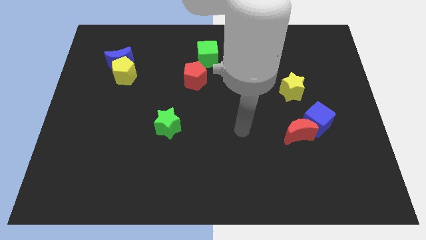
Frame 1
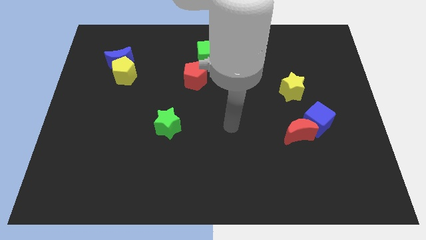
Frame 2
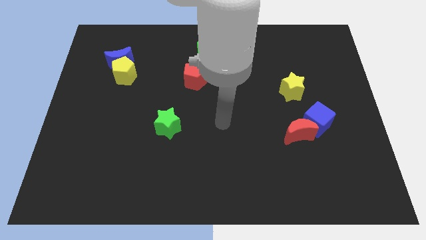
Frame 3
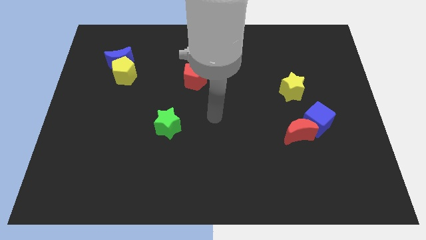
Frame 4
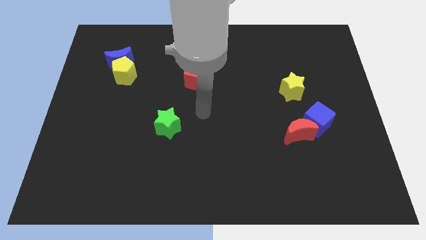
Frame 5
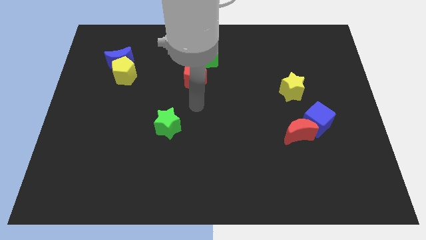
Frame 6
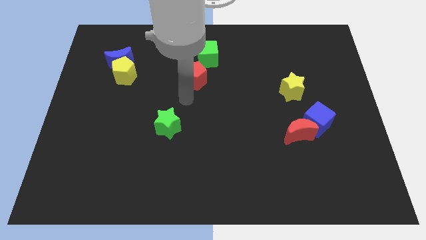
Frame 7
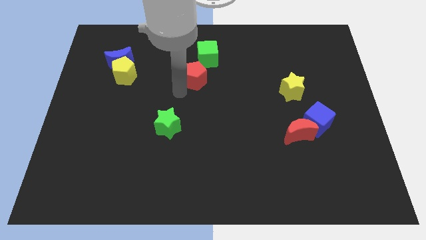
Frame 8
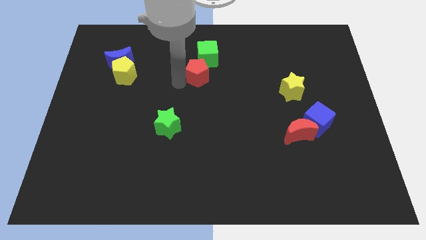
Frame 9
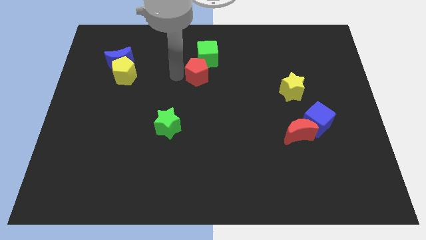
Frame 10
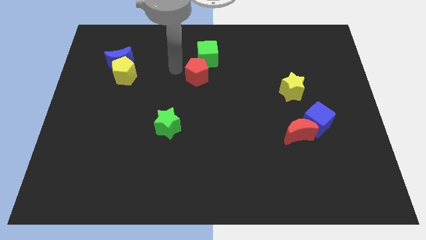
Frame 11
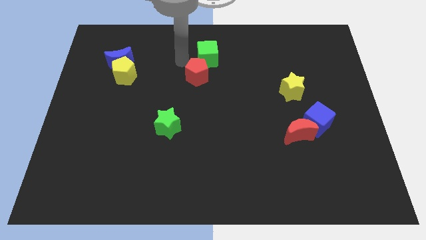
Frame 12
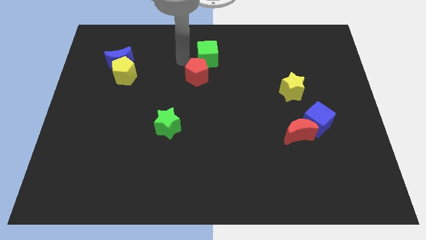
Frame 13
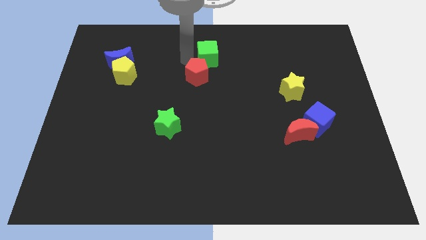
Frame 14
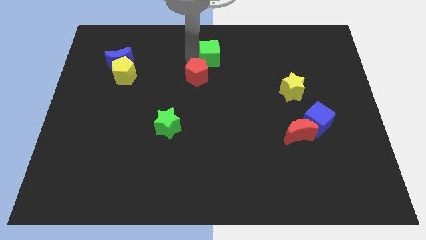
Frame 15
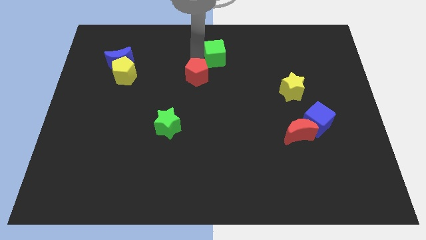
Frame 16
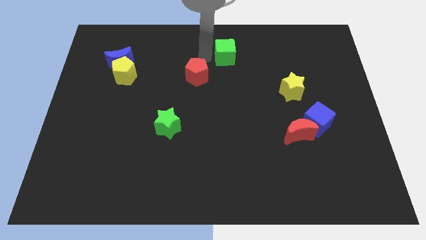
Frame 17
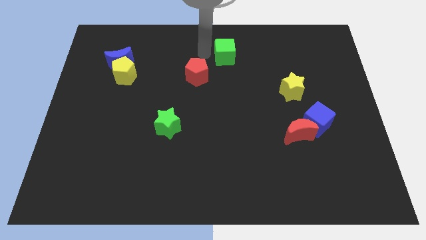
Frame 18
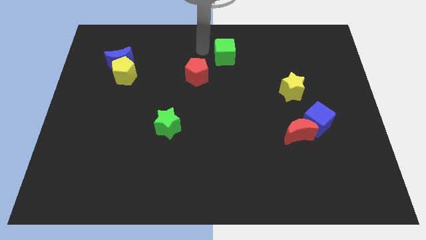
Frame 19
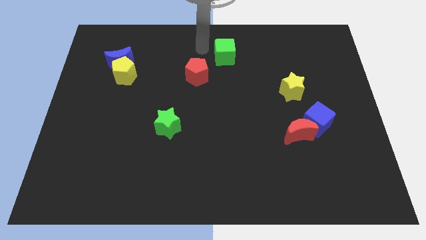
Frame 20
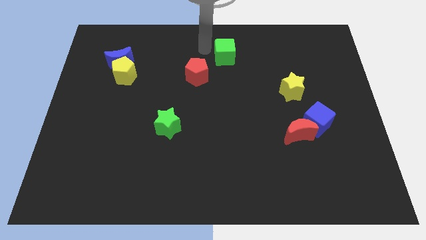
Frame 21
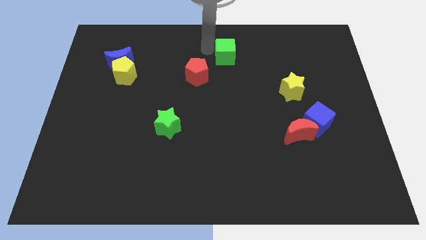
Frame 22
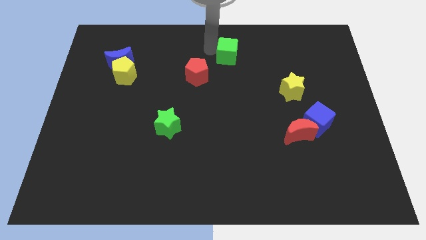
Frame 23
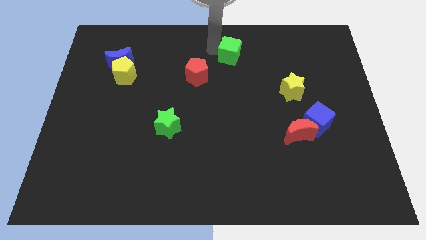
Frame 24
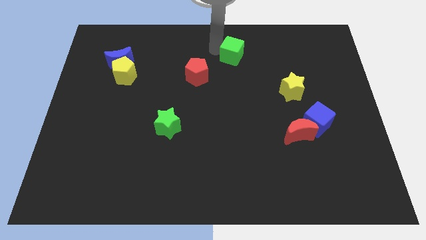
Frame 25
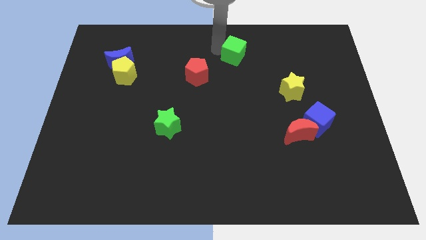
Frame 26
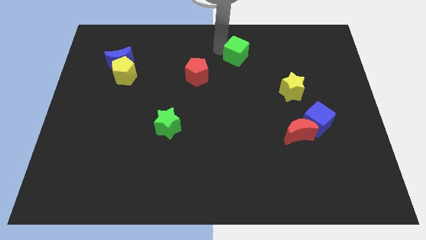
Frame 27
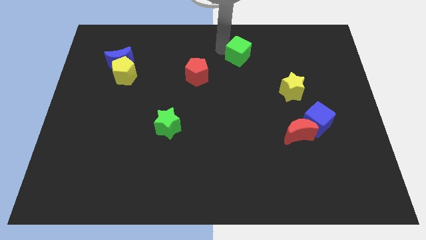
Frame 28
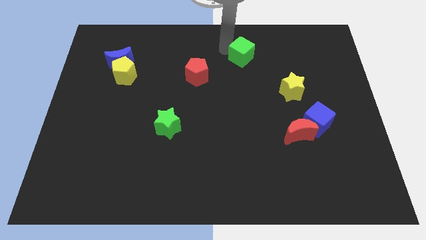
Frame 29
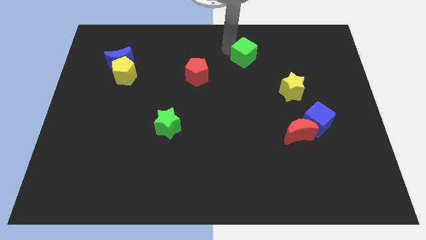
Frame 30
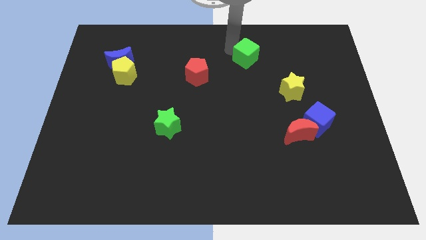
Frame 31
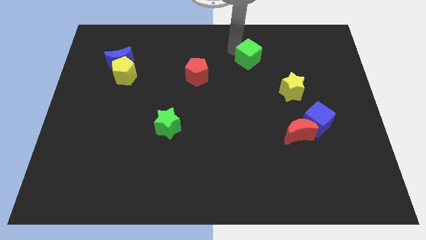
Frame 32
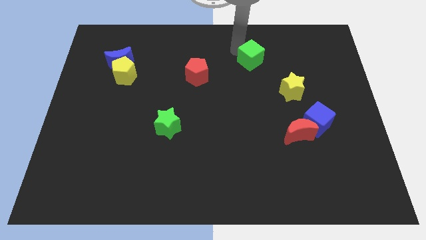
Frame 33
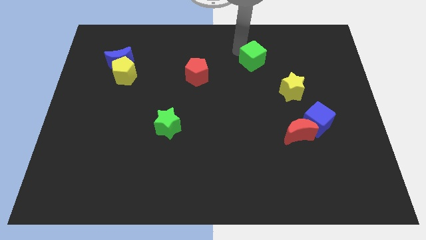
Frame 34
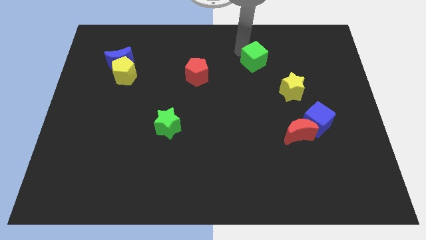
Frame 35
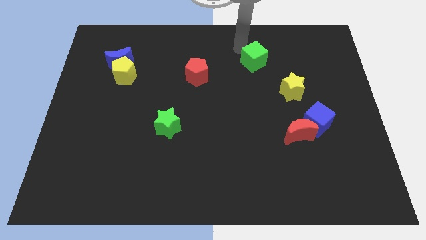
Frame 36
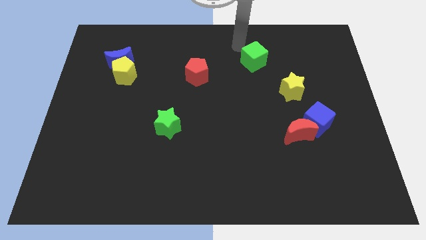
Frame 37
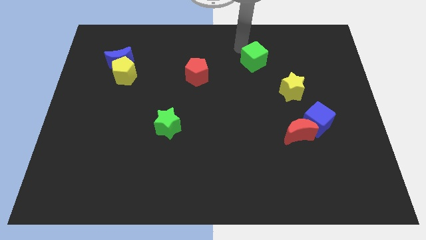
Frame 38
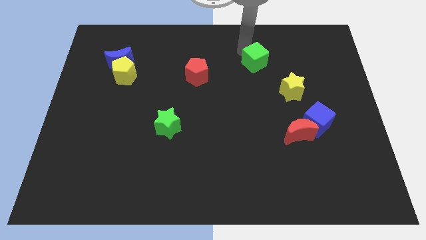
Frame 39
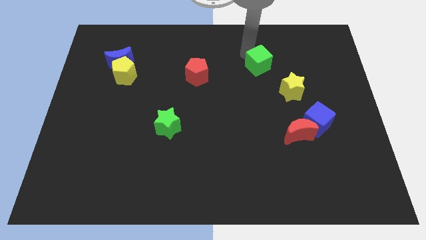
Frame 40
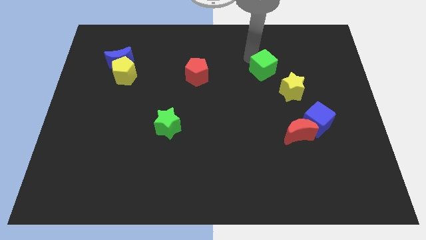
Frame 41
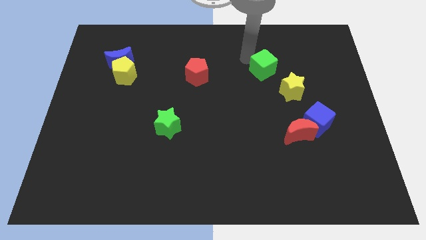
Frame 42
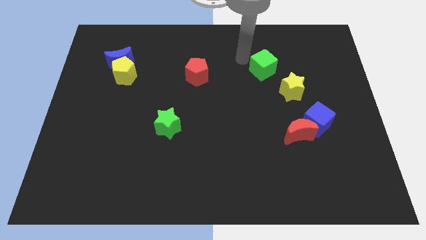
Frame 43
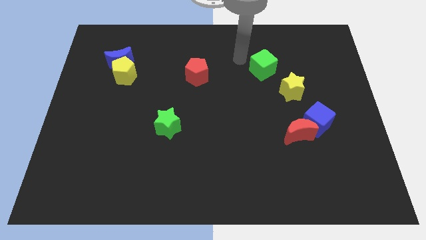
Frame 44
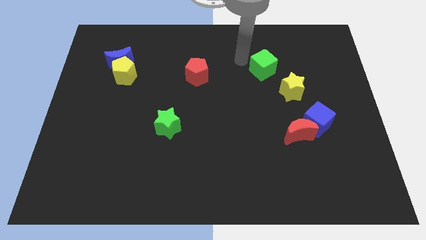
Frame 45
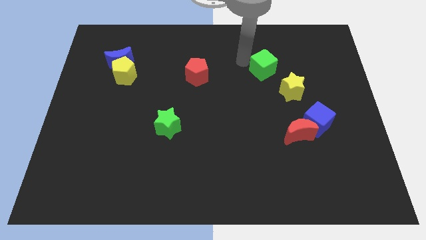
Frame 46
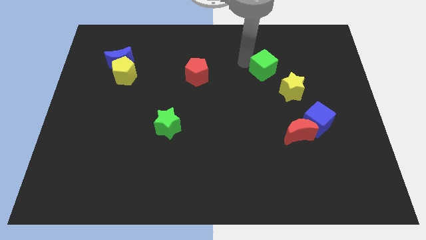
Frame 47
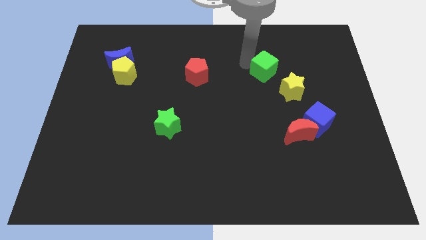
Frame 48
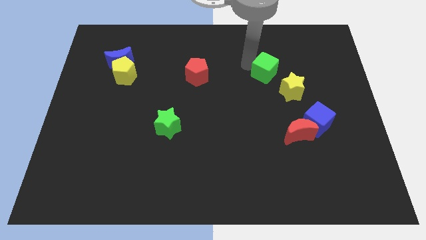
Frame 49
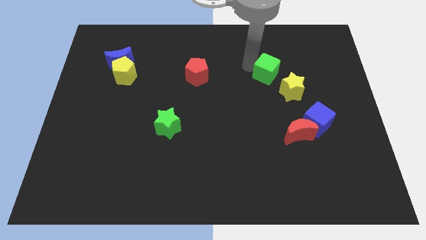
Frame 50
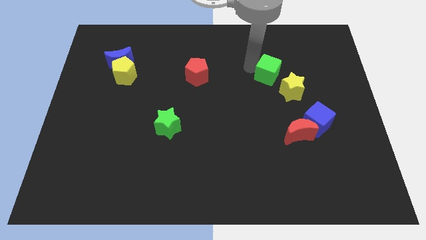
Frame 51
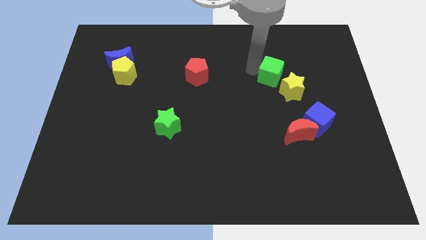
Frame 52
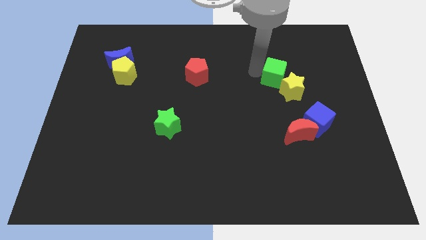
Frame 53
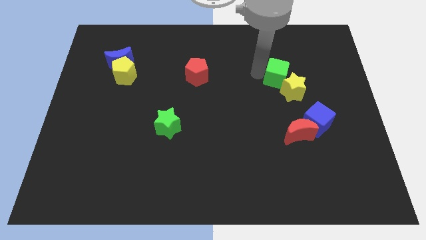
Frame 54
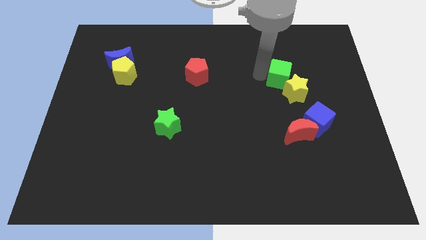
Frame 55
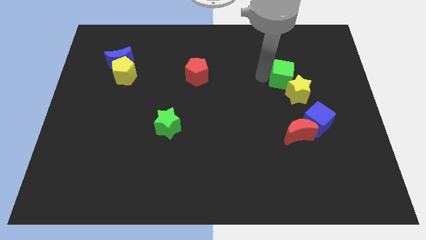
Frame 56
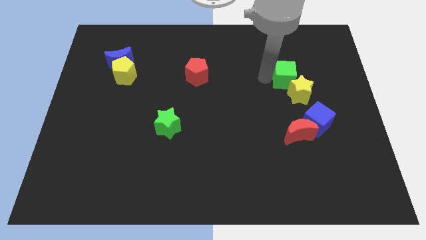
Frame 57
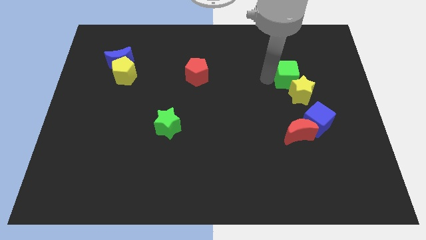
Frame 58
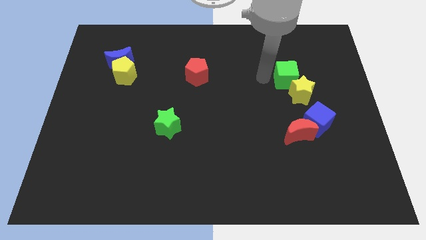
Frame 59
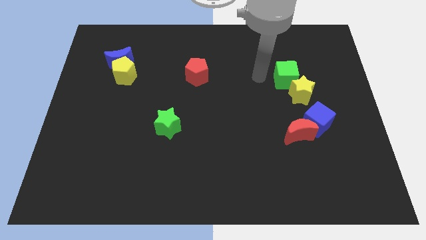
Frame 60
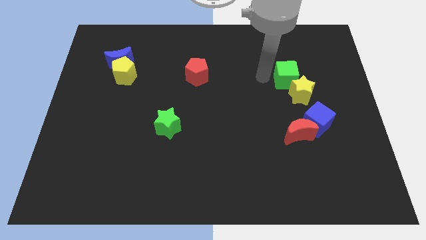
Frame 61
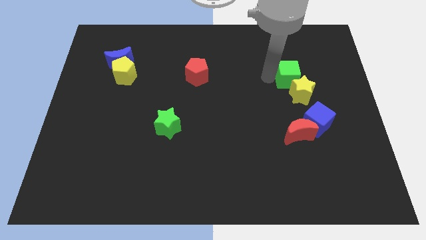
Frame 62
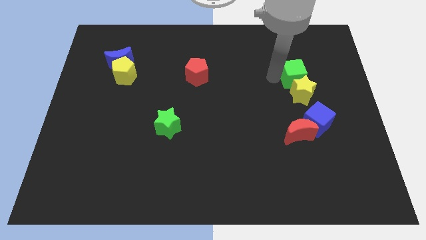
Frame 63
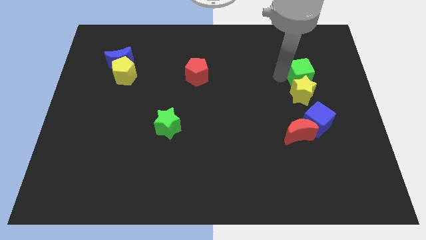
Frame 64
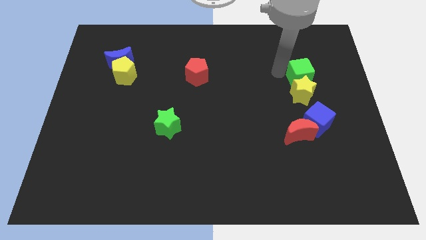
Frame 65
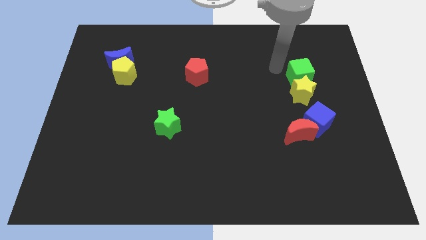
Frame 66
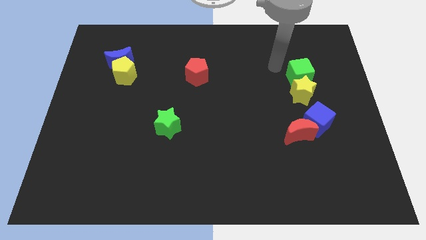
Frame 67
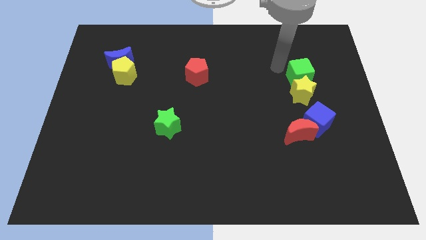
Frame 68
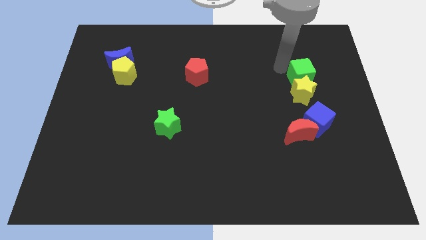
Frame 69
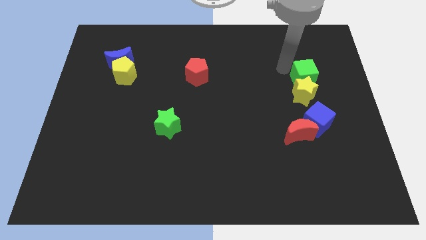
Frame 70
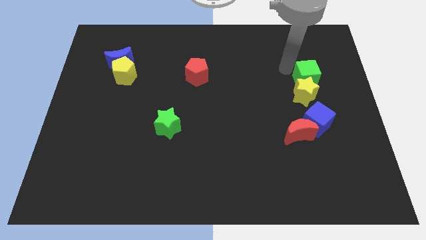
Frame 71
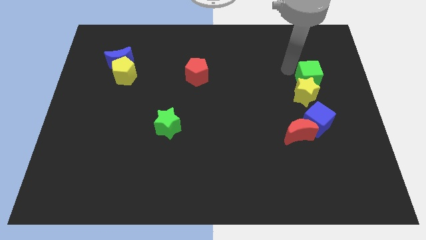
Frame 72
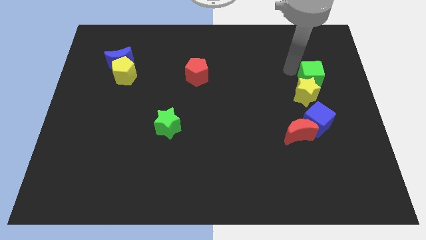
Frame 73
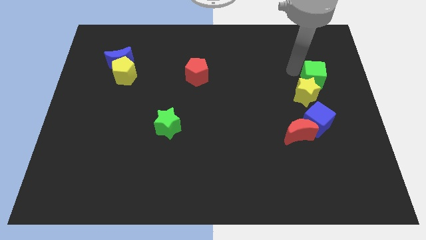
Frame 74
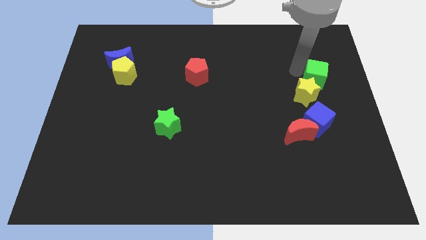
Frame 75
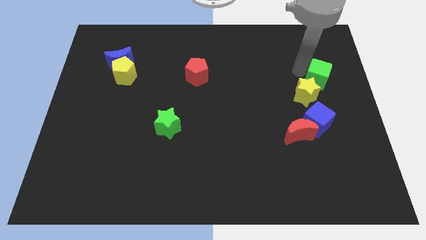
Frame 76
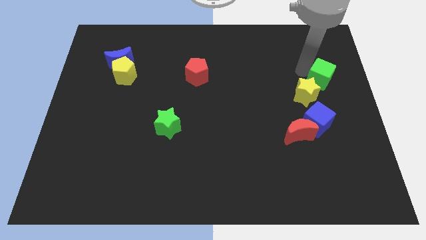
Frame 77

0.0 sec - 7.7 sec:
push the green cube to the center right

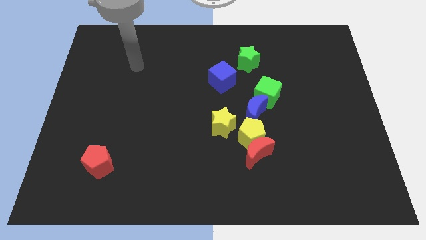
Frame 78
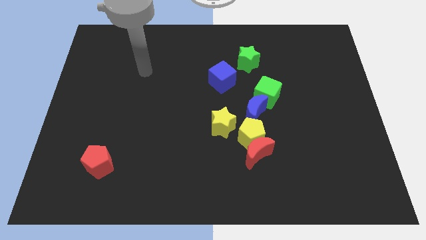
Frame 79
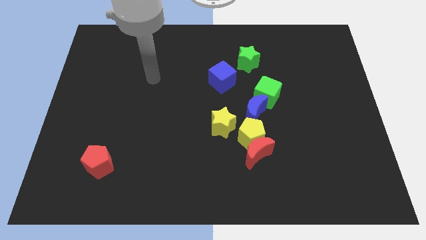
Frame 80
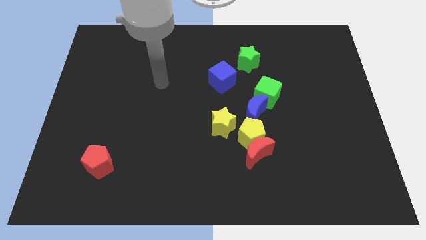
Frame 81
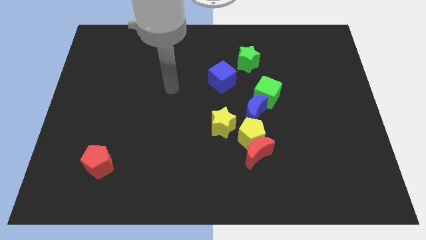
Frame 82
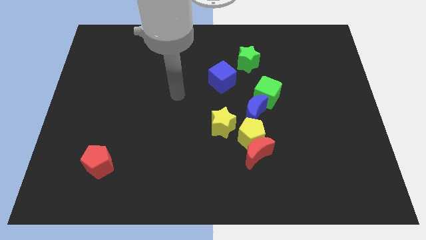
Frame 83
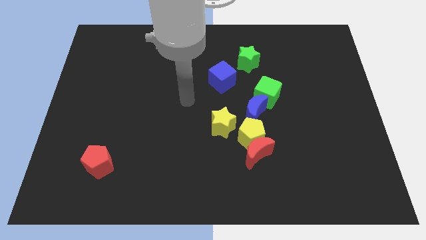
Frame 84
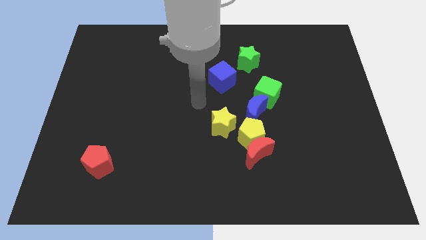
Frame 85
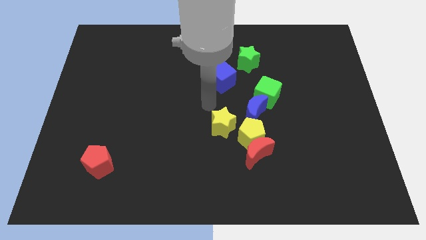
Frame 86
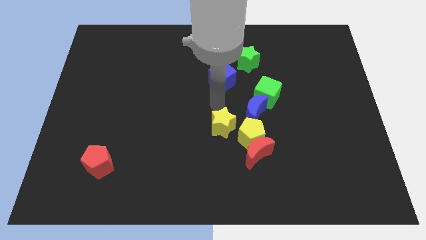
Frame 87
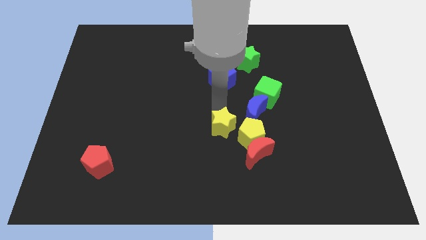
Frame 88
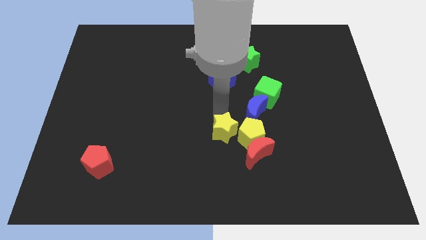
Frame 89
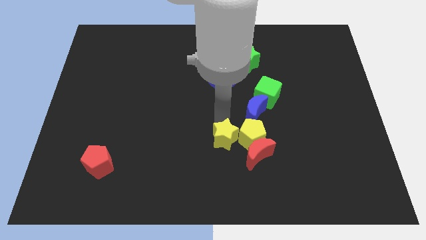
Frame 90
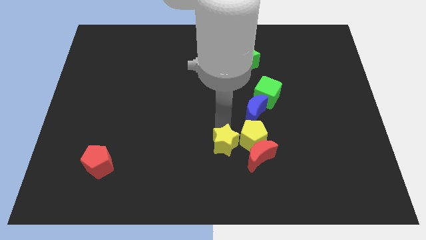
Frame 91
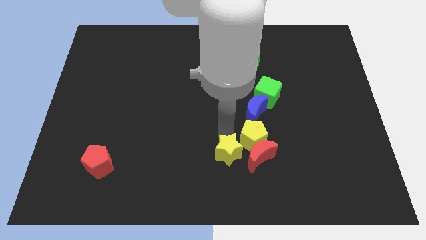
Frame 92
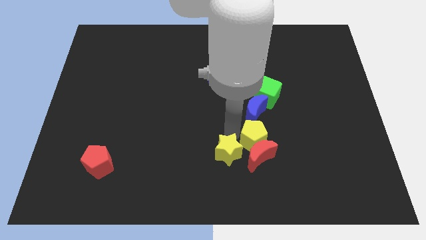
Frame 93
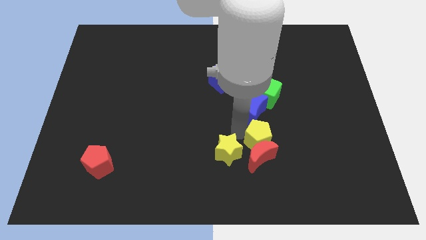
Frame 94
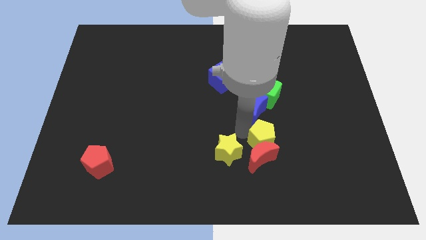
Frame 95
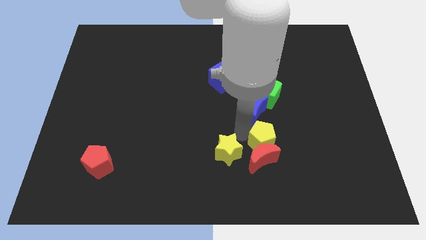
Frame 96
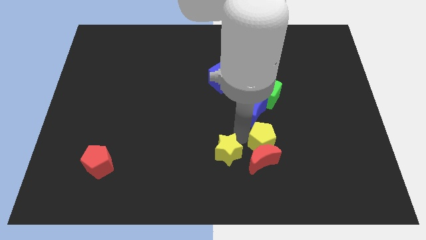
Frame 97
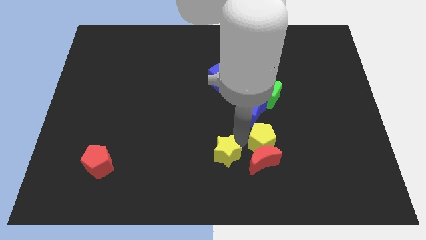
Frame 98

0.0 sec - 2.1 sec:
push the yellow star to the bottom side
